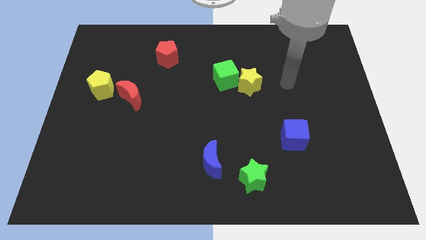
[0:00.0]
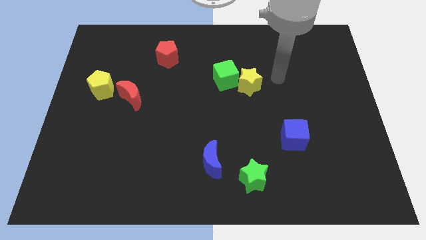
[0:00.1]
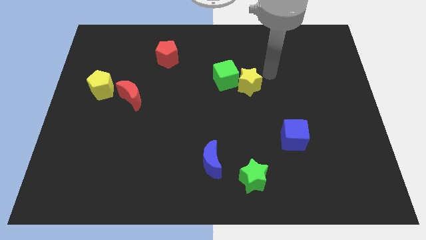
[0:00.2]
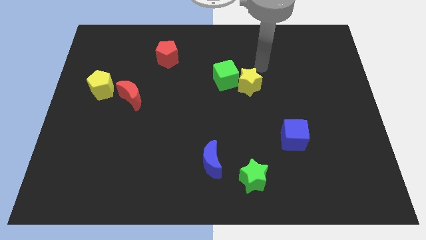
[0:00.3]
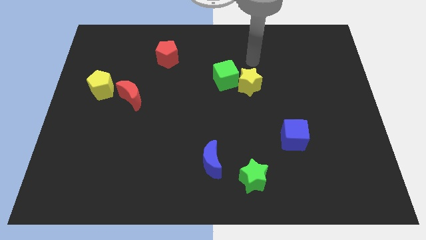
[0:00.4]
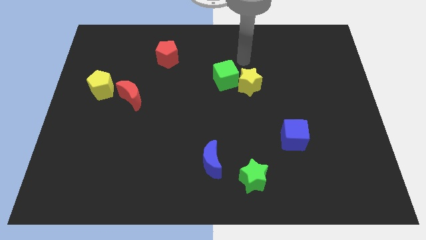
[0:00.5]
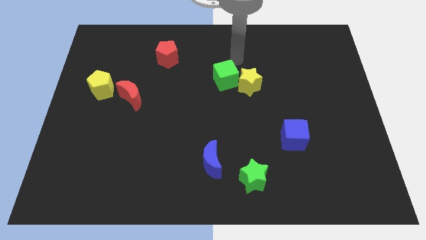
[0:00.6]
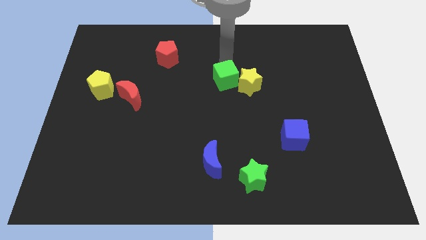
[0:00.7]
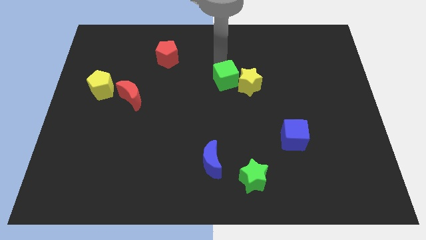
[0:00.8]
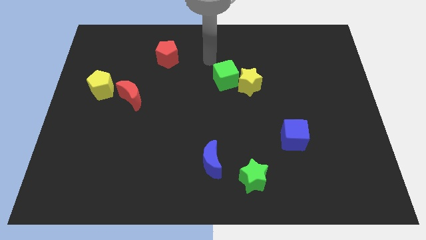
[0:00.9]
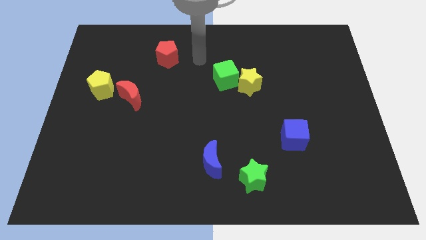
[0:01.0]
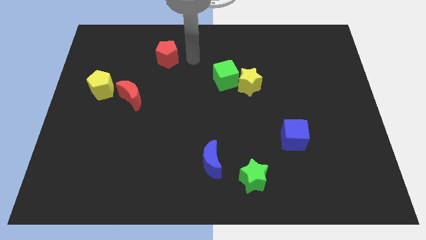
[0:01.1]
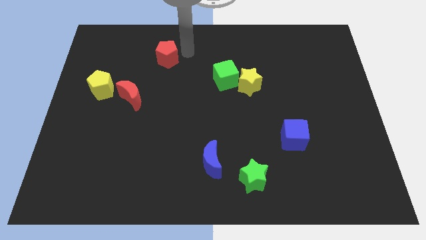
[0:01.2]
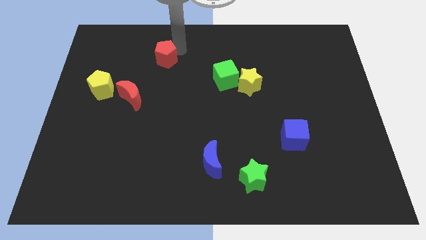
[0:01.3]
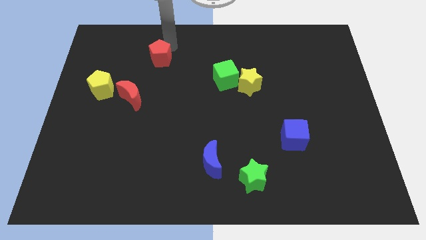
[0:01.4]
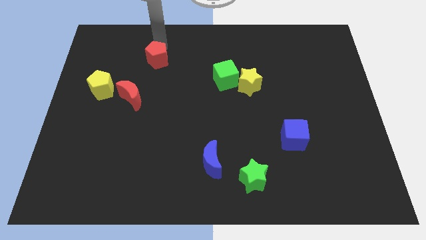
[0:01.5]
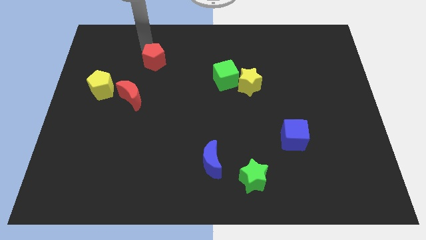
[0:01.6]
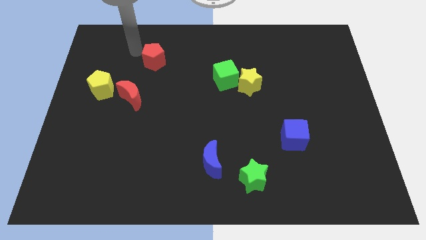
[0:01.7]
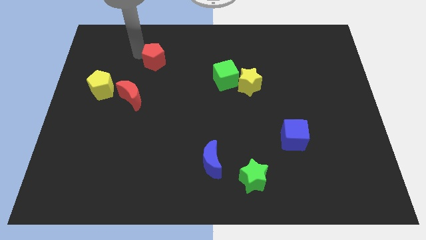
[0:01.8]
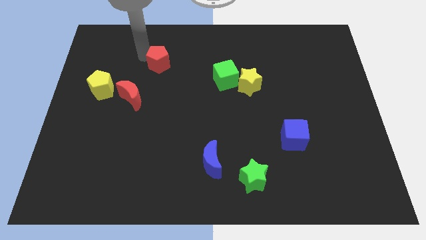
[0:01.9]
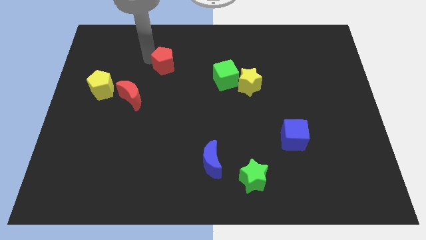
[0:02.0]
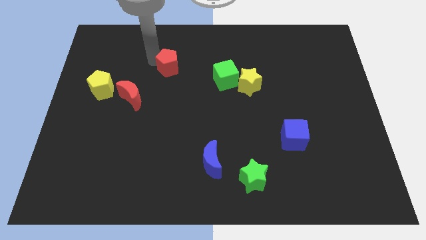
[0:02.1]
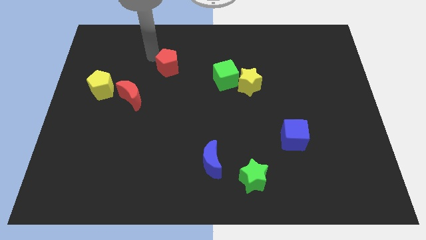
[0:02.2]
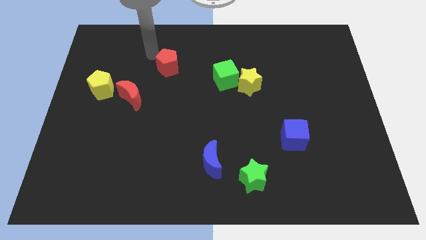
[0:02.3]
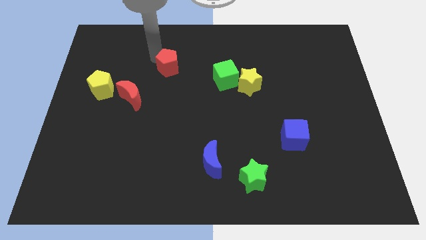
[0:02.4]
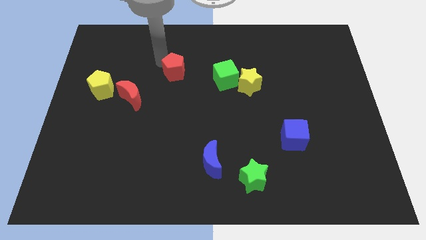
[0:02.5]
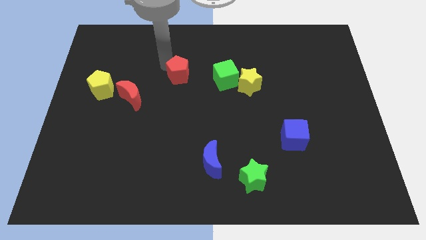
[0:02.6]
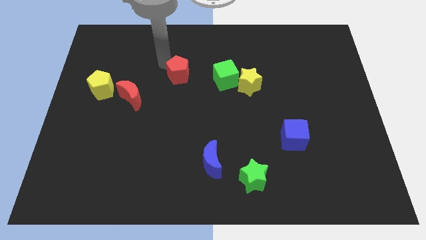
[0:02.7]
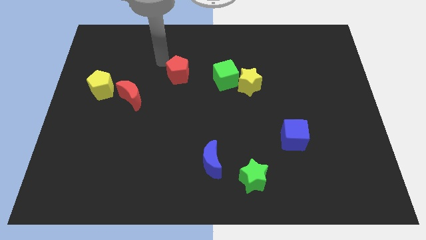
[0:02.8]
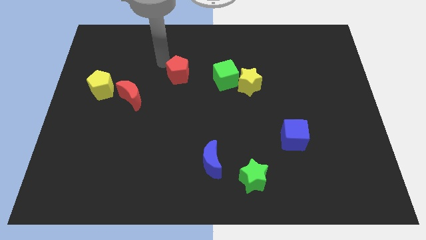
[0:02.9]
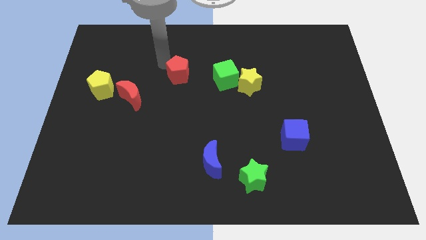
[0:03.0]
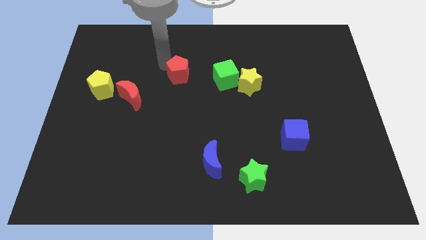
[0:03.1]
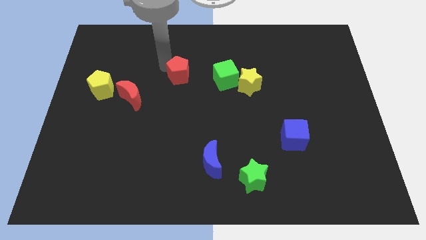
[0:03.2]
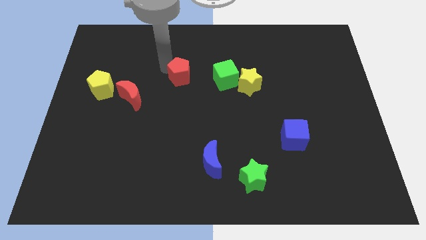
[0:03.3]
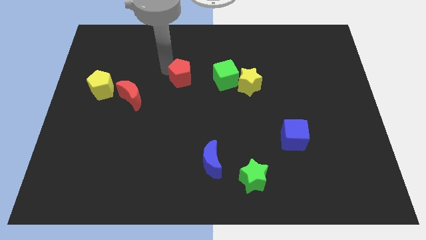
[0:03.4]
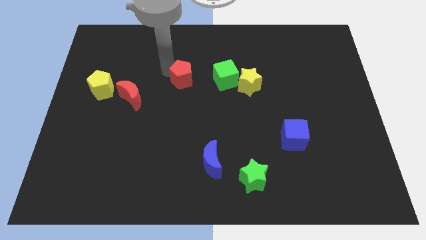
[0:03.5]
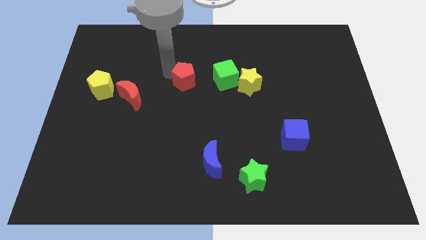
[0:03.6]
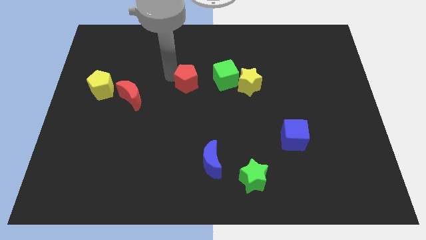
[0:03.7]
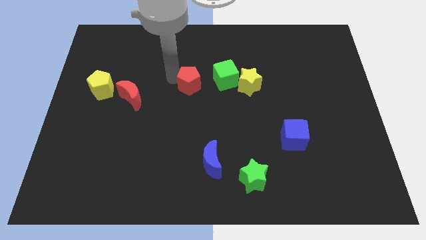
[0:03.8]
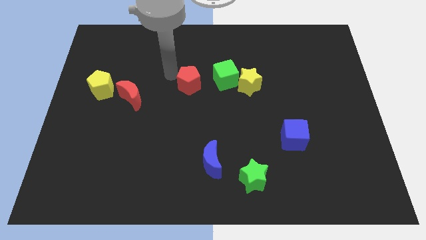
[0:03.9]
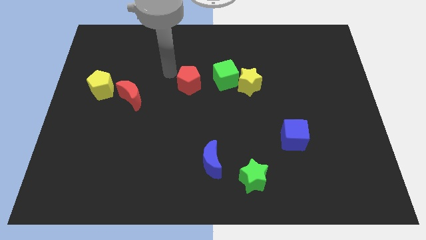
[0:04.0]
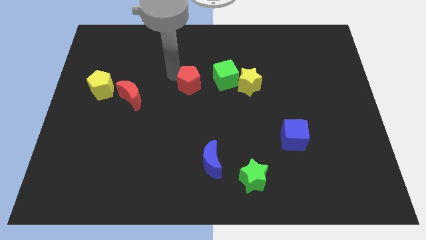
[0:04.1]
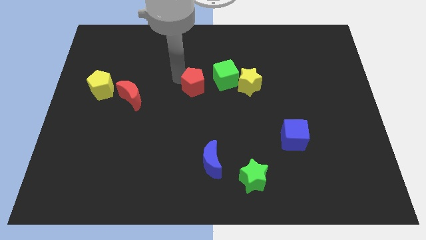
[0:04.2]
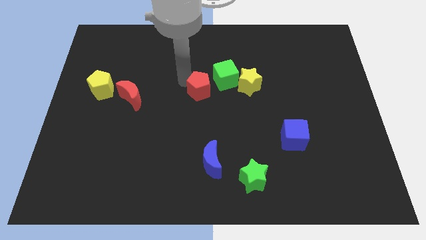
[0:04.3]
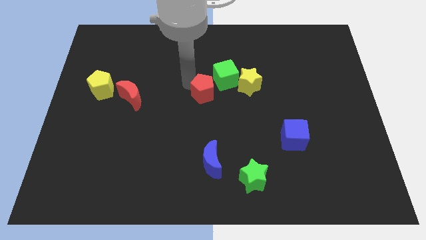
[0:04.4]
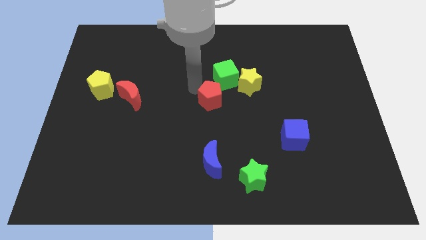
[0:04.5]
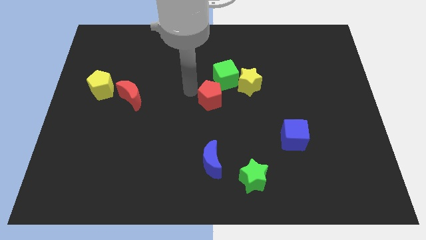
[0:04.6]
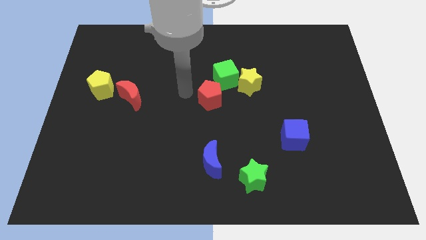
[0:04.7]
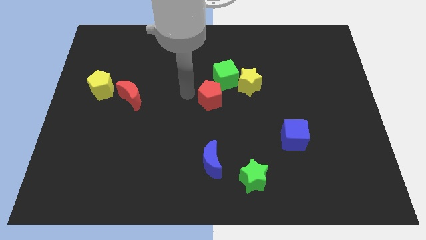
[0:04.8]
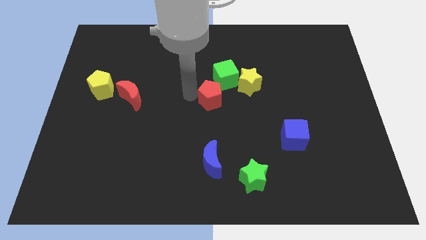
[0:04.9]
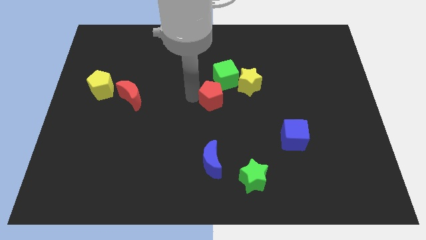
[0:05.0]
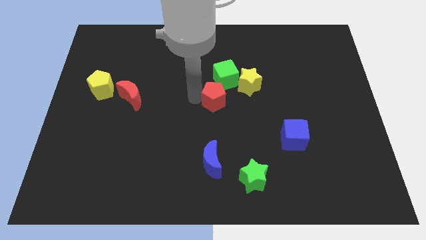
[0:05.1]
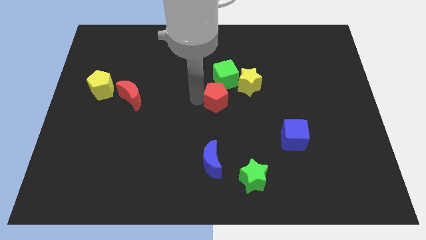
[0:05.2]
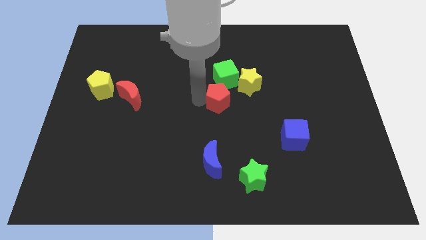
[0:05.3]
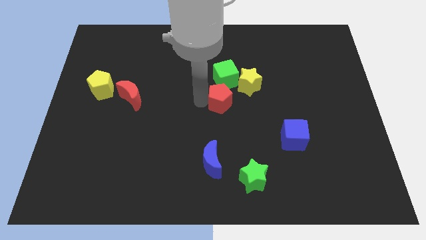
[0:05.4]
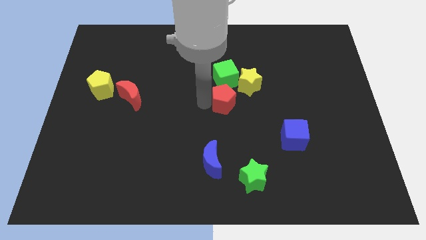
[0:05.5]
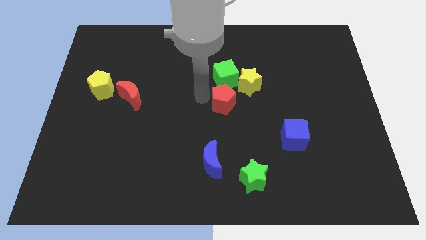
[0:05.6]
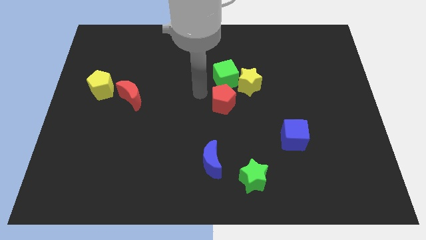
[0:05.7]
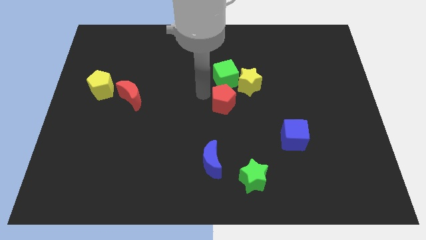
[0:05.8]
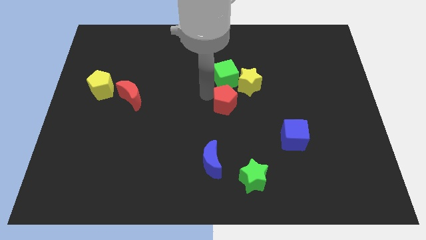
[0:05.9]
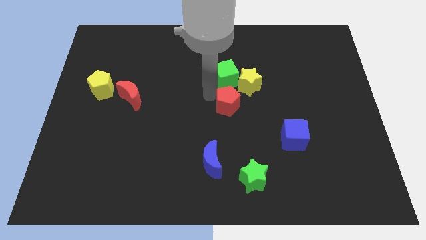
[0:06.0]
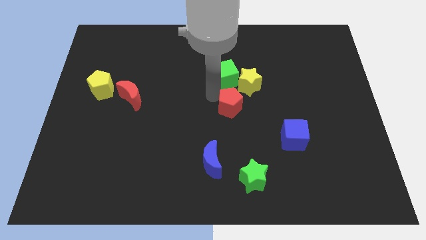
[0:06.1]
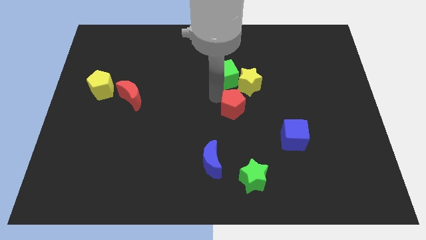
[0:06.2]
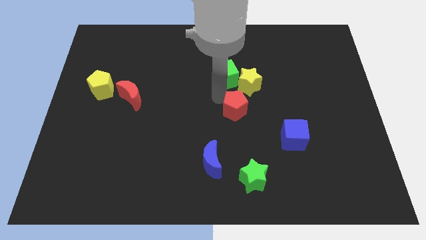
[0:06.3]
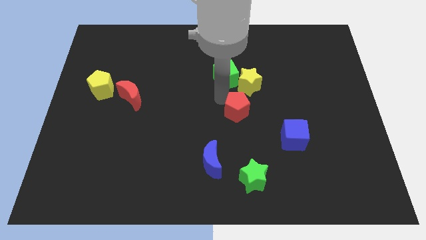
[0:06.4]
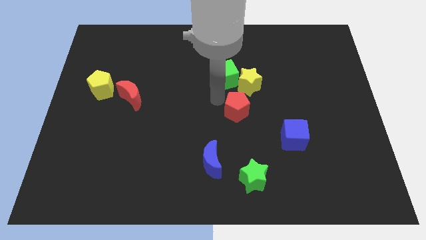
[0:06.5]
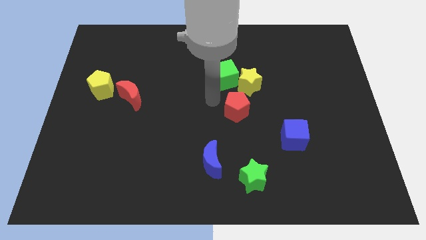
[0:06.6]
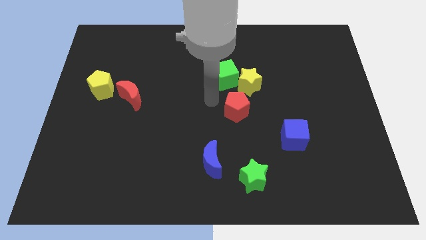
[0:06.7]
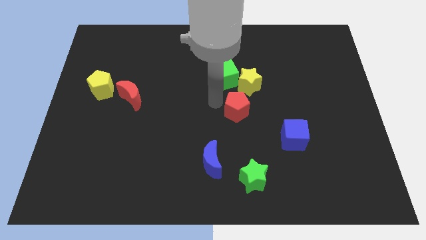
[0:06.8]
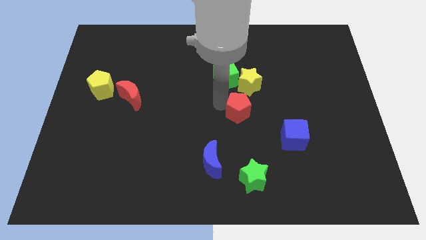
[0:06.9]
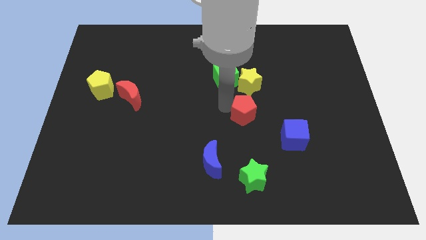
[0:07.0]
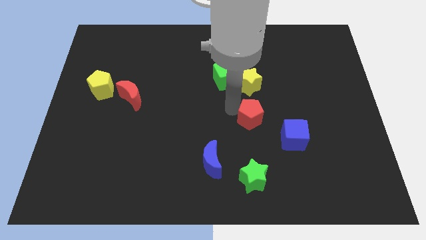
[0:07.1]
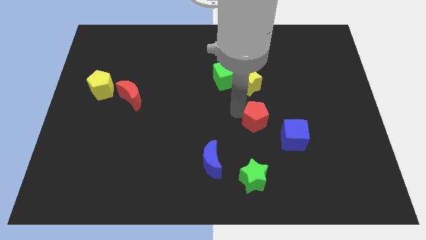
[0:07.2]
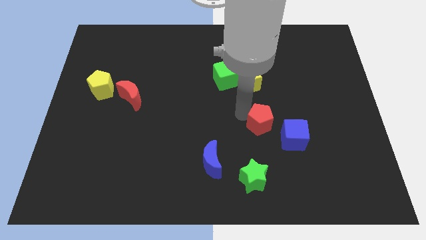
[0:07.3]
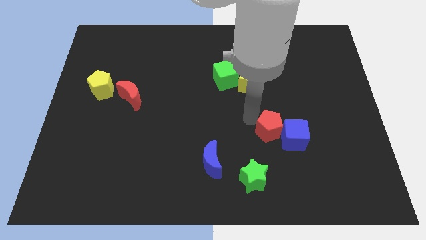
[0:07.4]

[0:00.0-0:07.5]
slide the red pentagon to the blue cube
